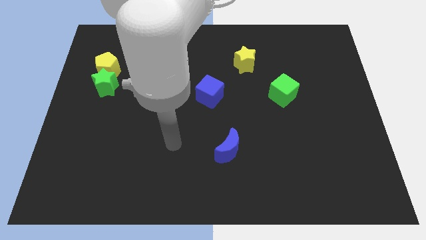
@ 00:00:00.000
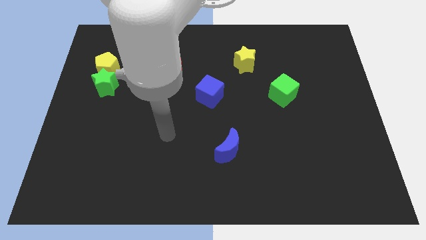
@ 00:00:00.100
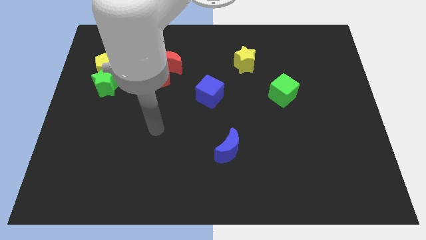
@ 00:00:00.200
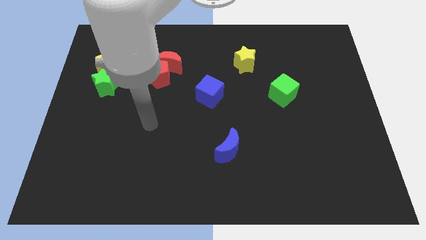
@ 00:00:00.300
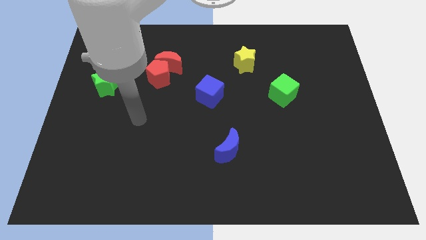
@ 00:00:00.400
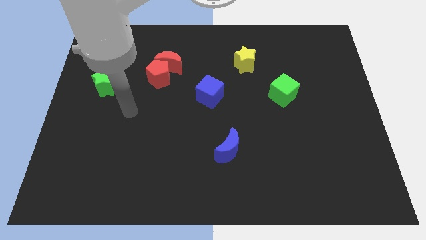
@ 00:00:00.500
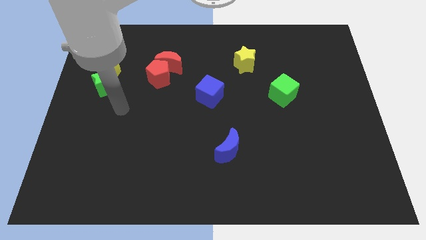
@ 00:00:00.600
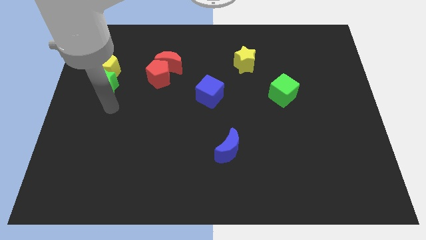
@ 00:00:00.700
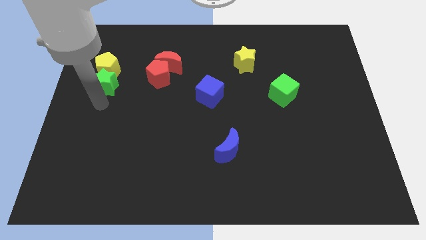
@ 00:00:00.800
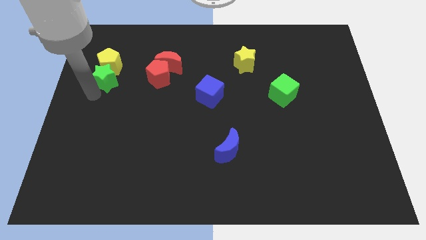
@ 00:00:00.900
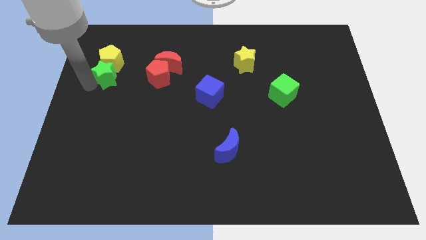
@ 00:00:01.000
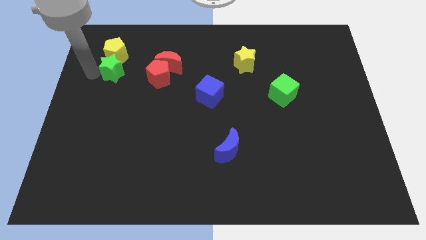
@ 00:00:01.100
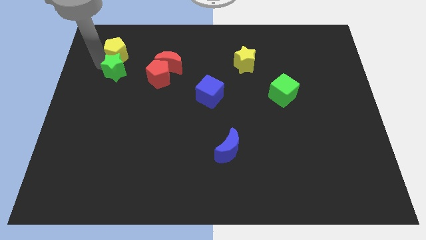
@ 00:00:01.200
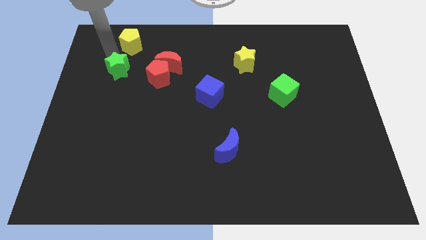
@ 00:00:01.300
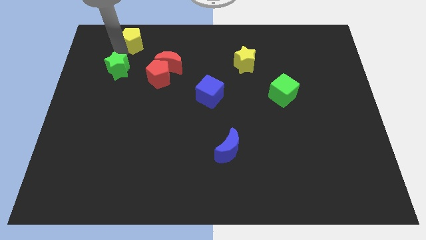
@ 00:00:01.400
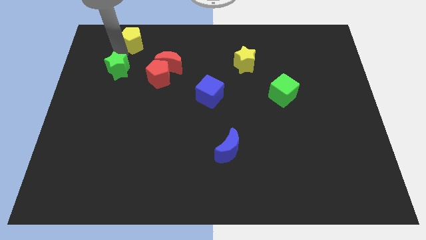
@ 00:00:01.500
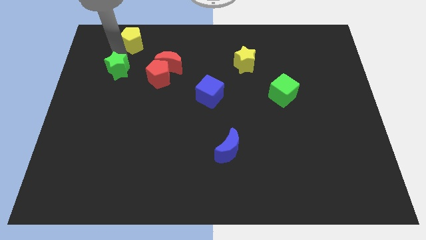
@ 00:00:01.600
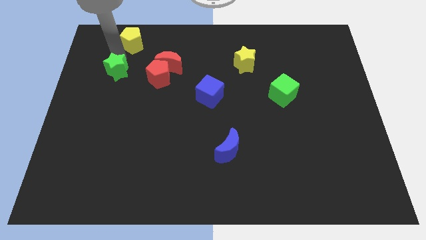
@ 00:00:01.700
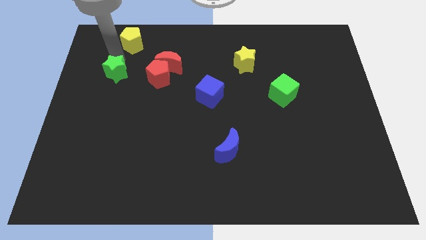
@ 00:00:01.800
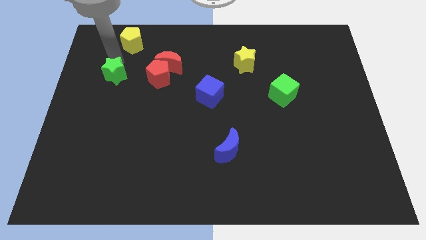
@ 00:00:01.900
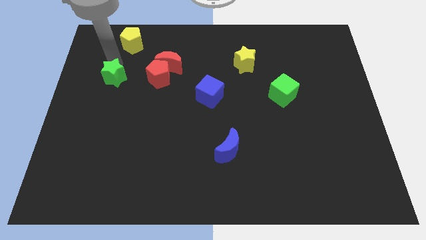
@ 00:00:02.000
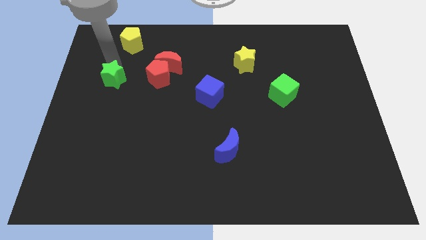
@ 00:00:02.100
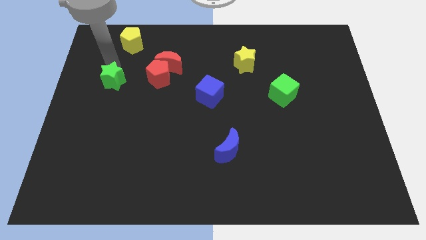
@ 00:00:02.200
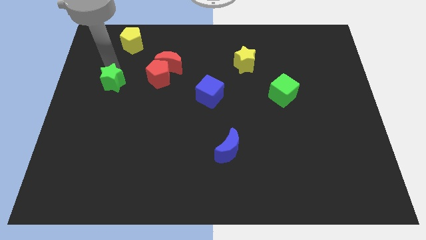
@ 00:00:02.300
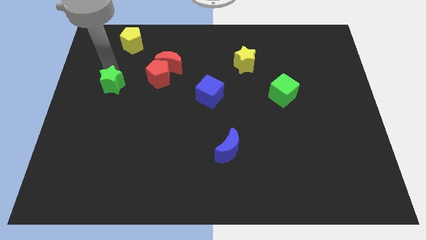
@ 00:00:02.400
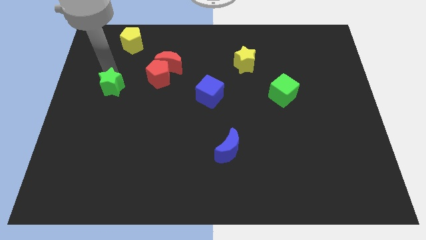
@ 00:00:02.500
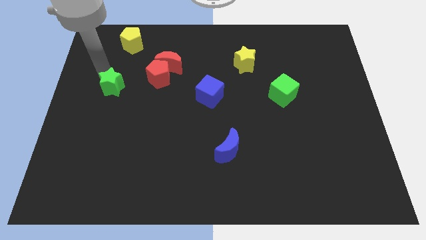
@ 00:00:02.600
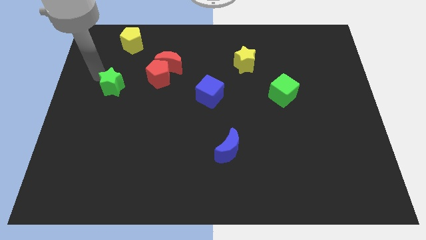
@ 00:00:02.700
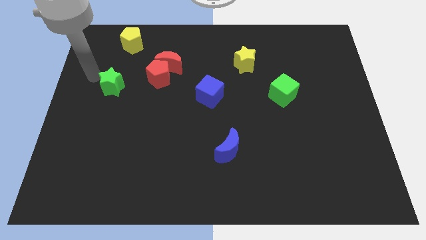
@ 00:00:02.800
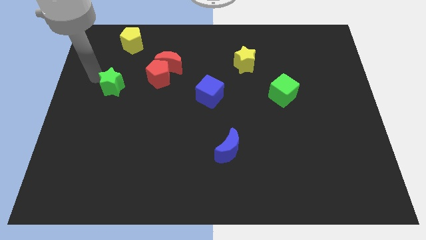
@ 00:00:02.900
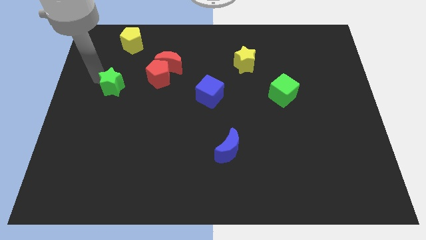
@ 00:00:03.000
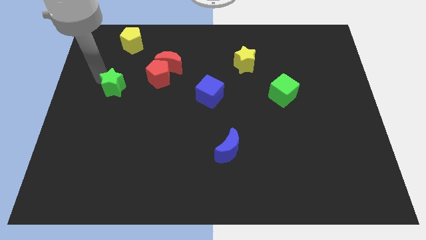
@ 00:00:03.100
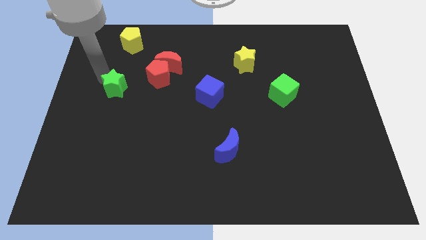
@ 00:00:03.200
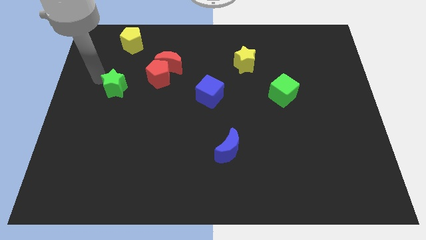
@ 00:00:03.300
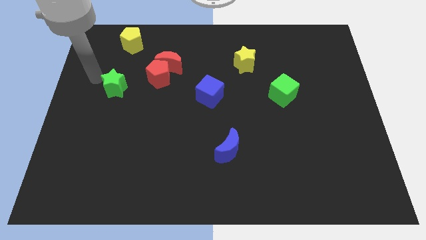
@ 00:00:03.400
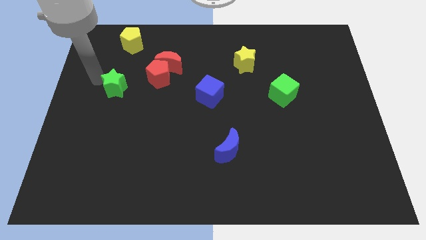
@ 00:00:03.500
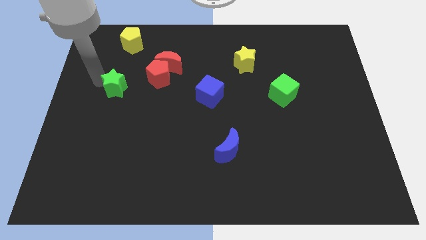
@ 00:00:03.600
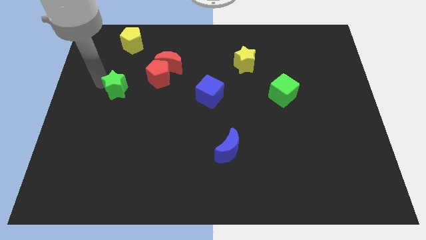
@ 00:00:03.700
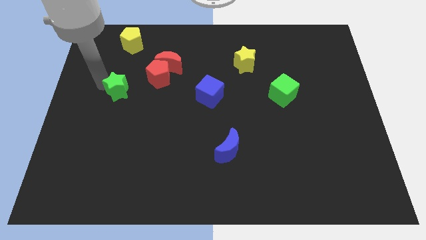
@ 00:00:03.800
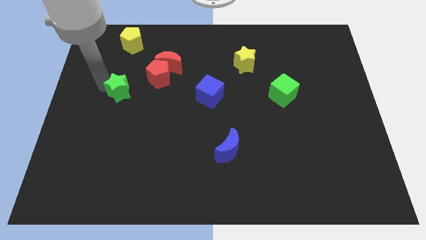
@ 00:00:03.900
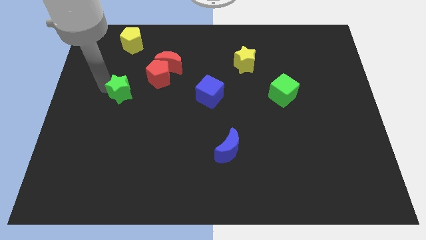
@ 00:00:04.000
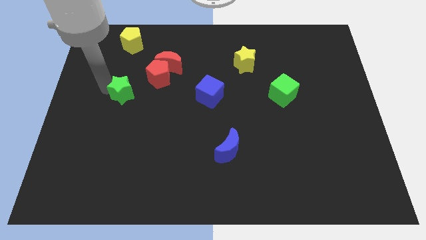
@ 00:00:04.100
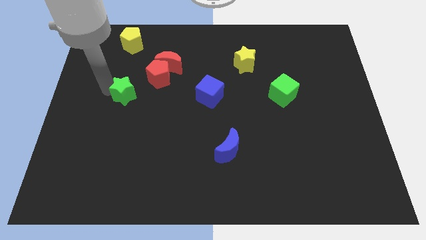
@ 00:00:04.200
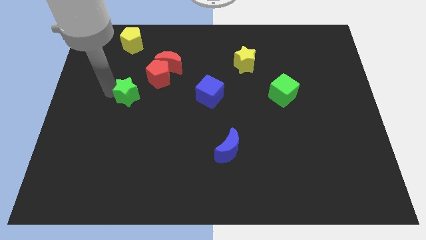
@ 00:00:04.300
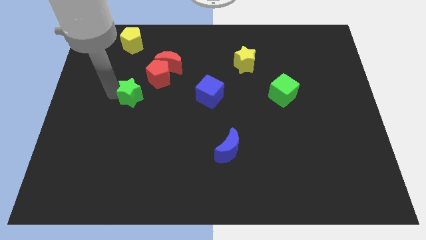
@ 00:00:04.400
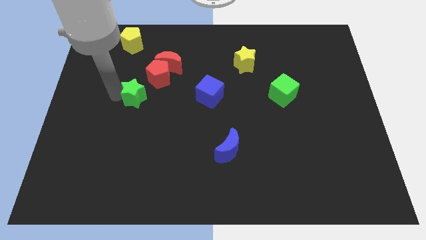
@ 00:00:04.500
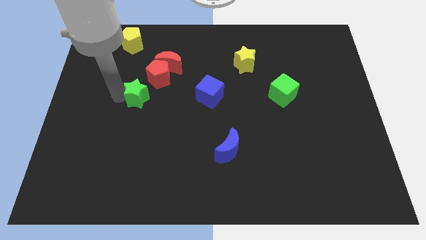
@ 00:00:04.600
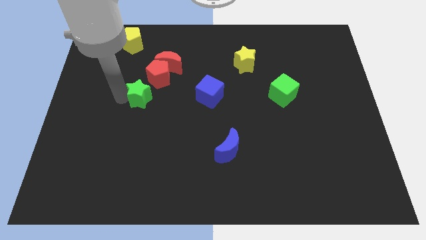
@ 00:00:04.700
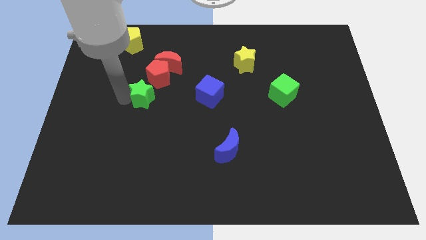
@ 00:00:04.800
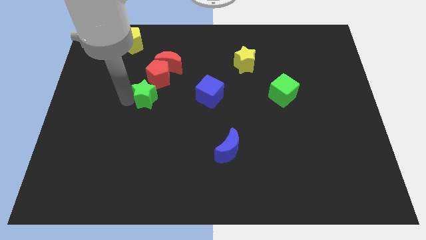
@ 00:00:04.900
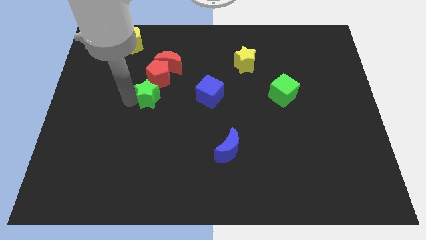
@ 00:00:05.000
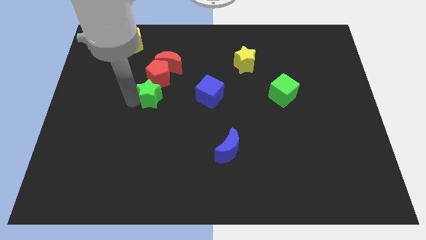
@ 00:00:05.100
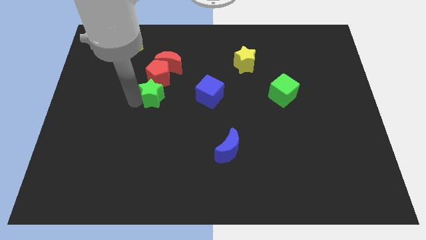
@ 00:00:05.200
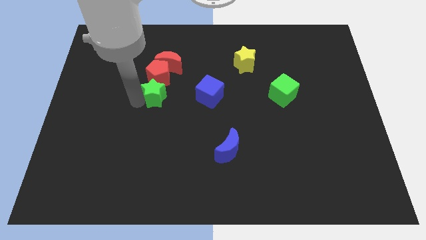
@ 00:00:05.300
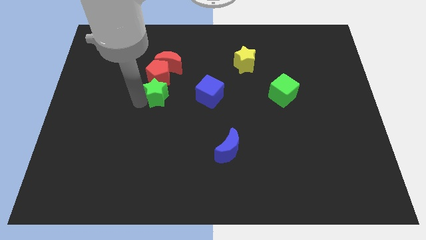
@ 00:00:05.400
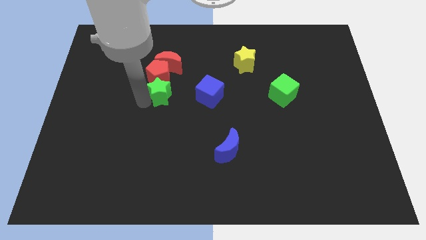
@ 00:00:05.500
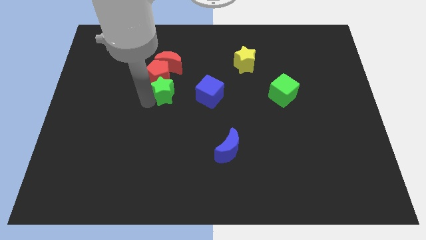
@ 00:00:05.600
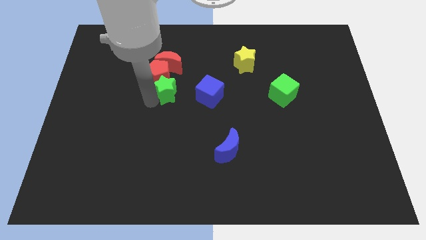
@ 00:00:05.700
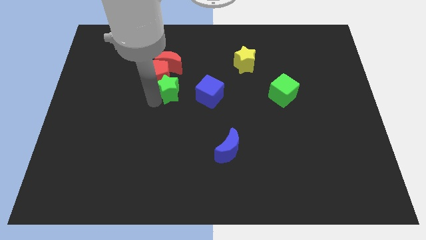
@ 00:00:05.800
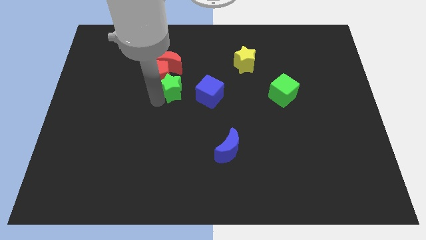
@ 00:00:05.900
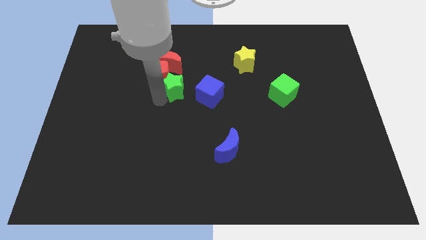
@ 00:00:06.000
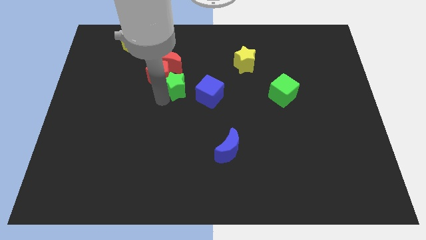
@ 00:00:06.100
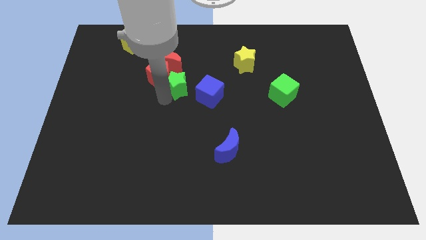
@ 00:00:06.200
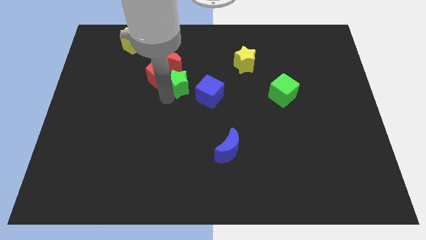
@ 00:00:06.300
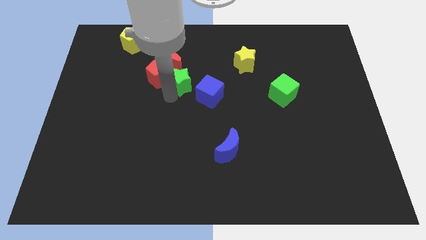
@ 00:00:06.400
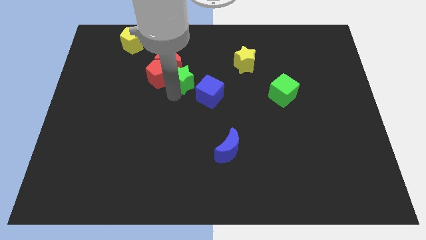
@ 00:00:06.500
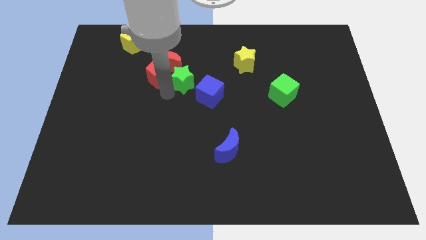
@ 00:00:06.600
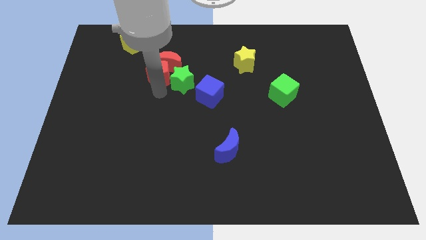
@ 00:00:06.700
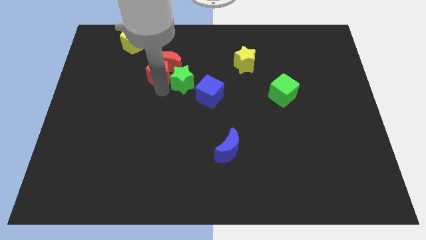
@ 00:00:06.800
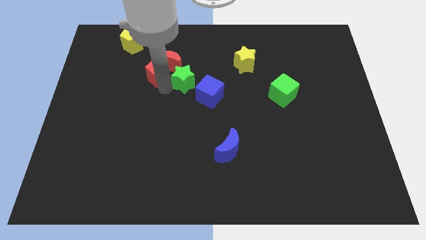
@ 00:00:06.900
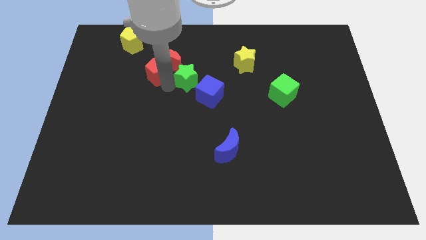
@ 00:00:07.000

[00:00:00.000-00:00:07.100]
slide the green star right

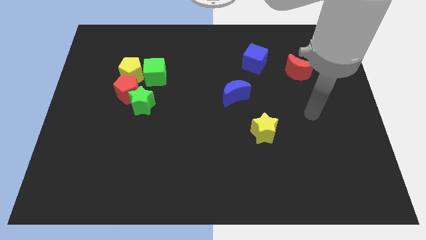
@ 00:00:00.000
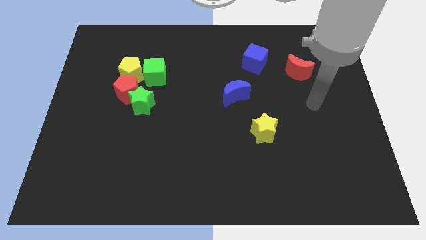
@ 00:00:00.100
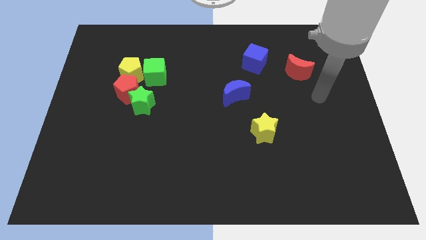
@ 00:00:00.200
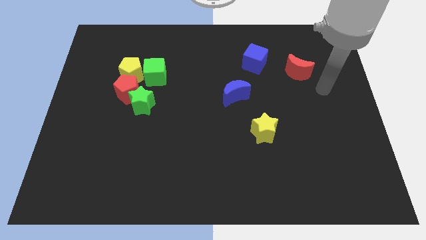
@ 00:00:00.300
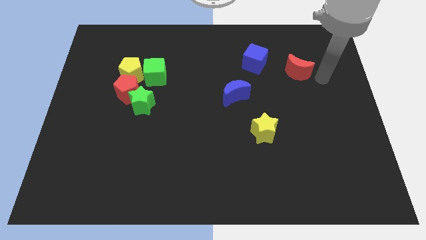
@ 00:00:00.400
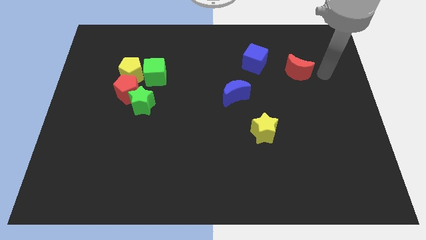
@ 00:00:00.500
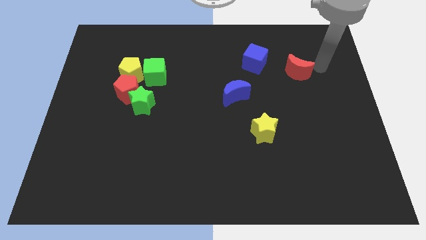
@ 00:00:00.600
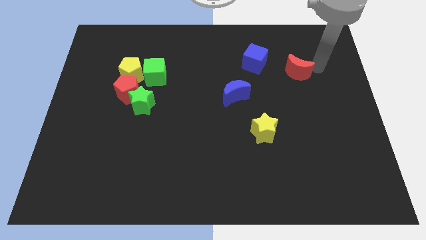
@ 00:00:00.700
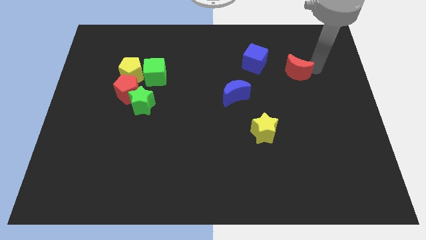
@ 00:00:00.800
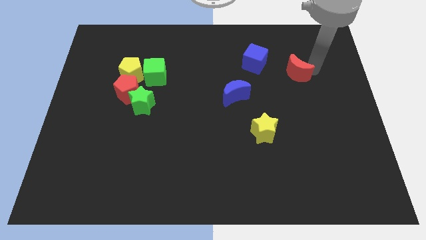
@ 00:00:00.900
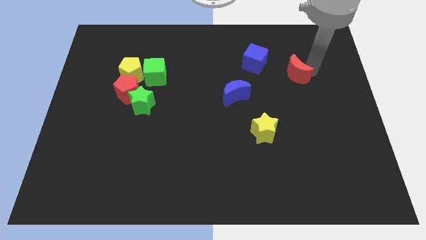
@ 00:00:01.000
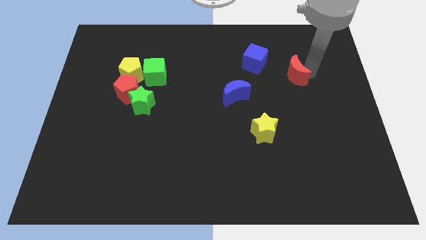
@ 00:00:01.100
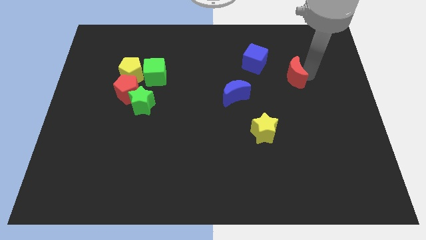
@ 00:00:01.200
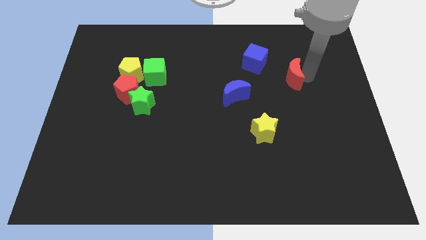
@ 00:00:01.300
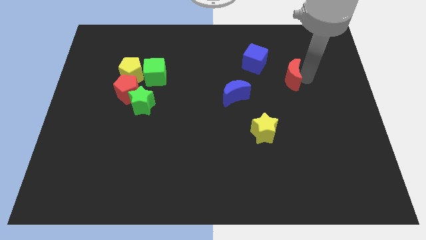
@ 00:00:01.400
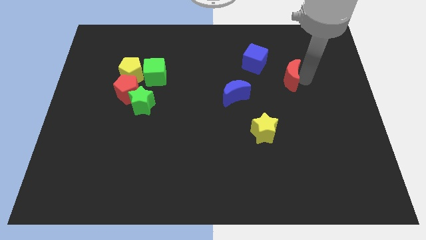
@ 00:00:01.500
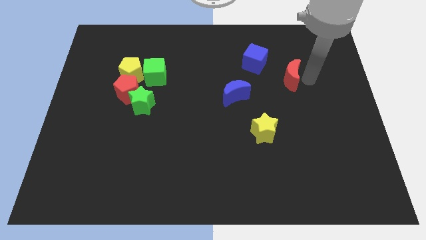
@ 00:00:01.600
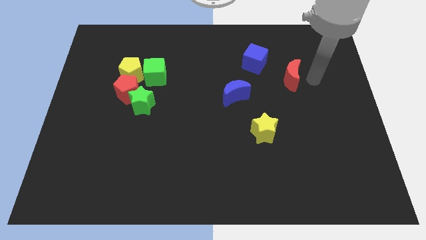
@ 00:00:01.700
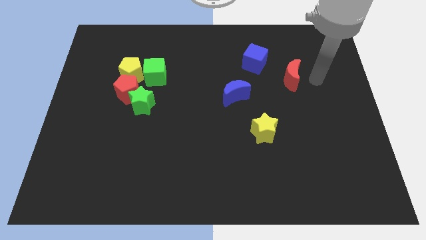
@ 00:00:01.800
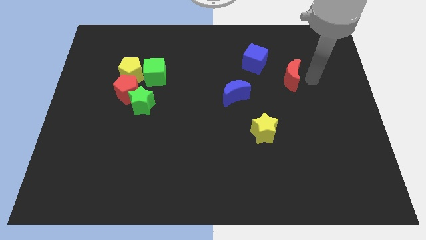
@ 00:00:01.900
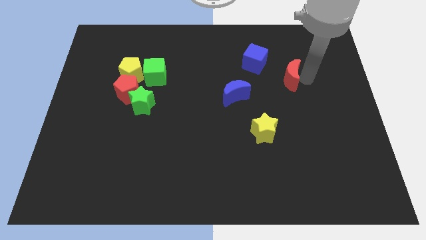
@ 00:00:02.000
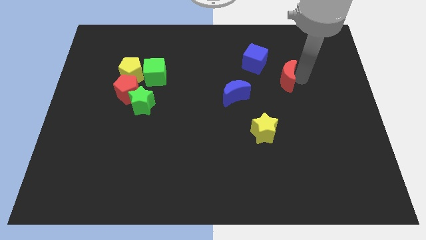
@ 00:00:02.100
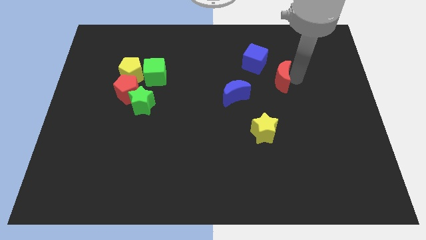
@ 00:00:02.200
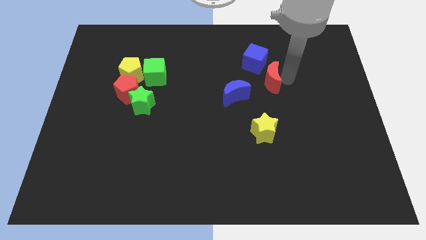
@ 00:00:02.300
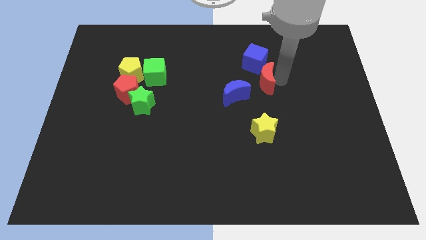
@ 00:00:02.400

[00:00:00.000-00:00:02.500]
move the red moon a little to the left
